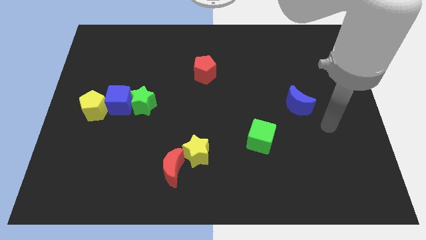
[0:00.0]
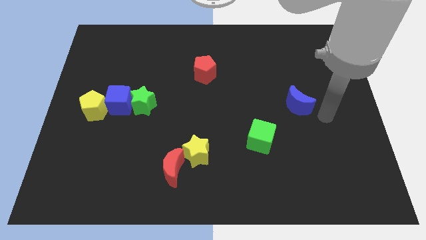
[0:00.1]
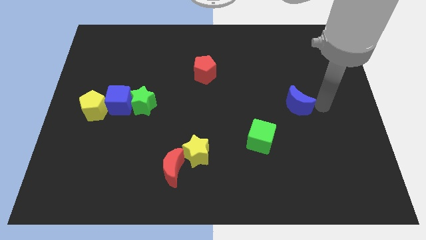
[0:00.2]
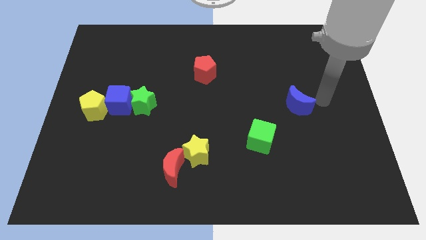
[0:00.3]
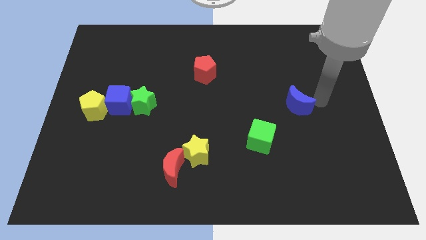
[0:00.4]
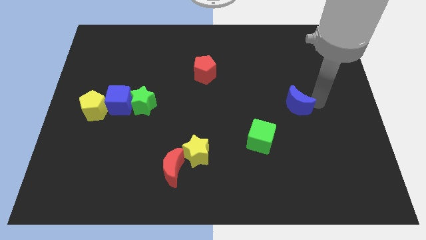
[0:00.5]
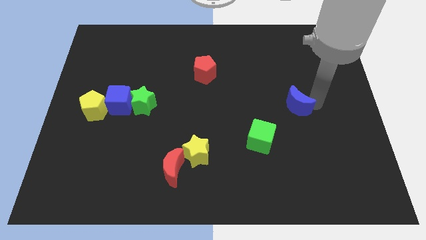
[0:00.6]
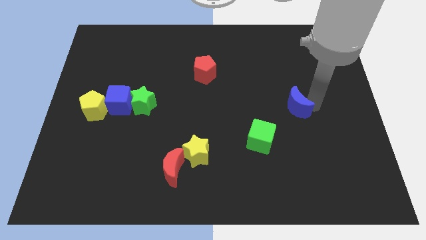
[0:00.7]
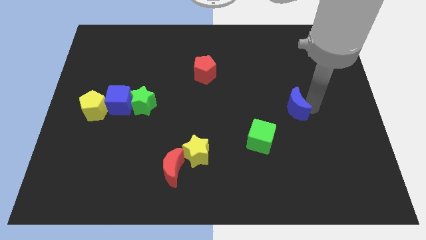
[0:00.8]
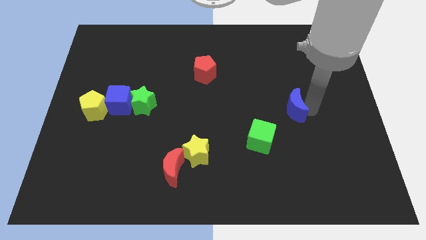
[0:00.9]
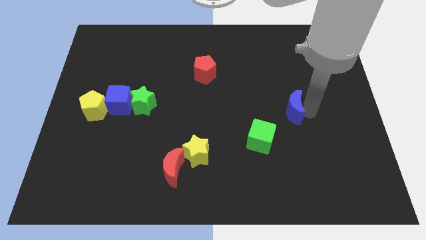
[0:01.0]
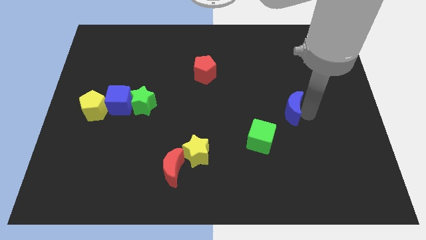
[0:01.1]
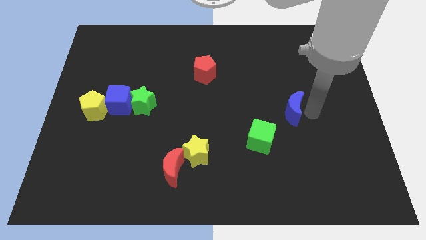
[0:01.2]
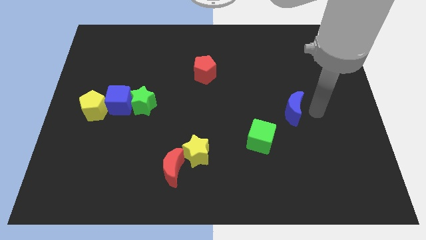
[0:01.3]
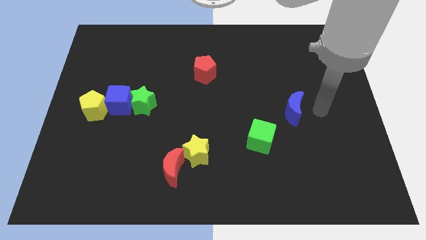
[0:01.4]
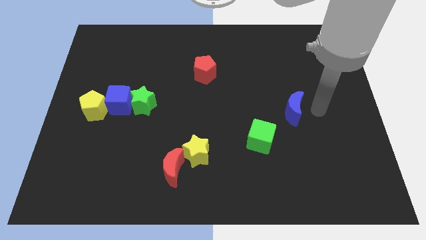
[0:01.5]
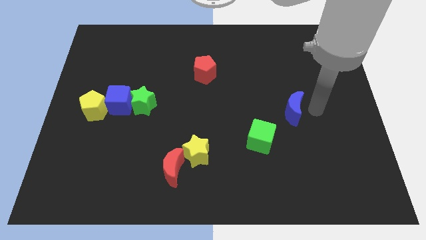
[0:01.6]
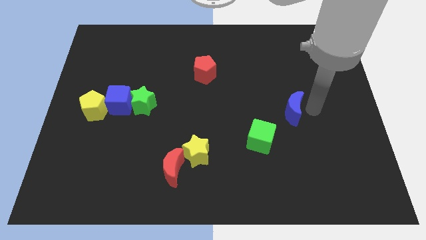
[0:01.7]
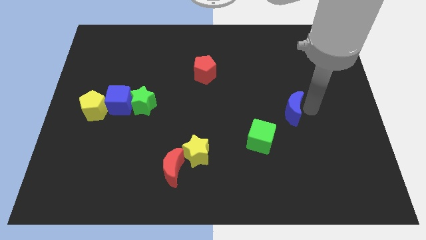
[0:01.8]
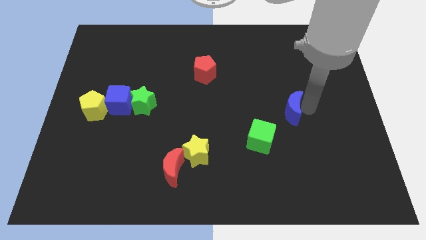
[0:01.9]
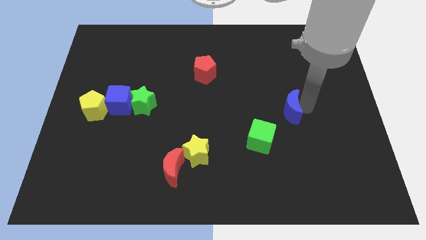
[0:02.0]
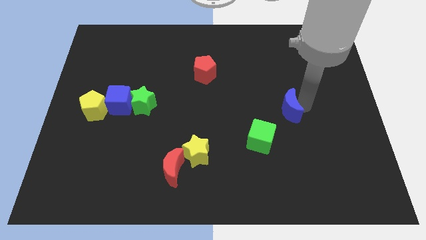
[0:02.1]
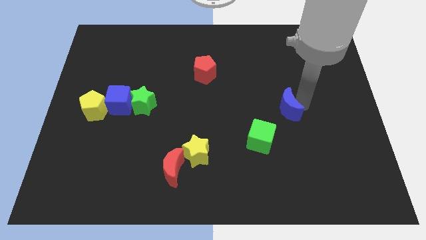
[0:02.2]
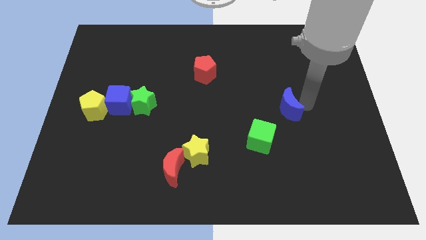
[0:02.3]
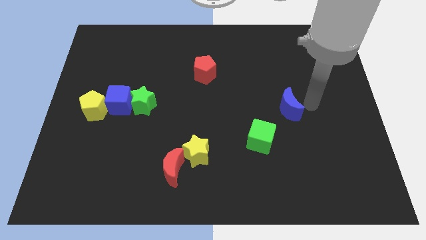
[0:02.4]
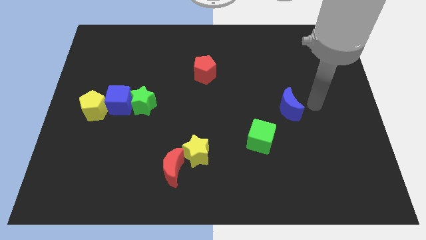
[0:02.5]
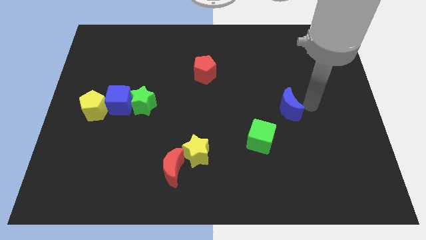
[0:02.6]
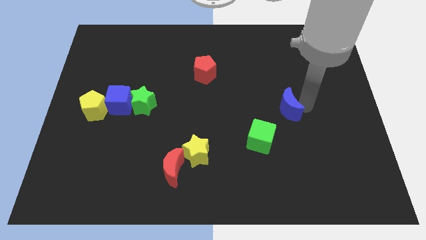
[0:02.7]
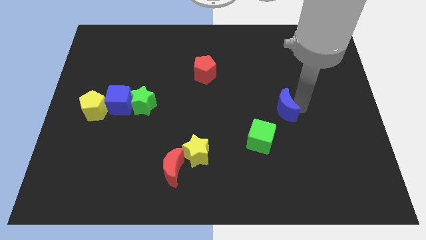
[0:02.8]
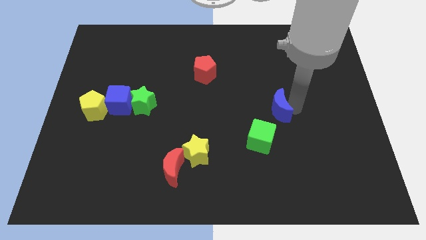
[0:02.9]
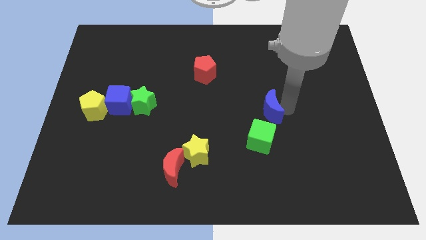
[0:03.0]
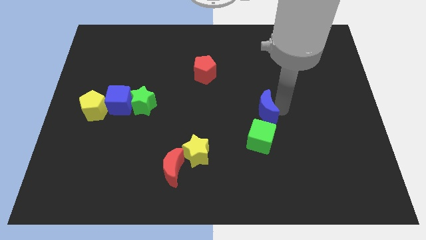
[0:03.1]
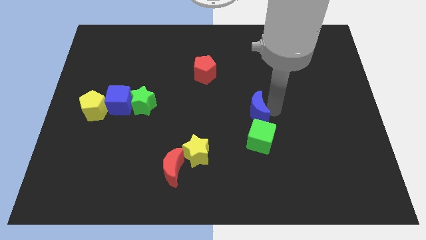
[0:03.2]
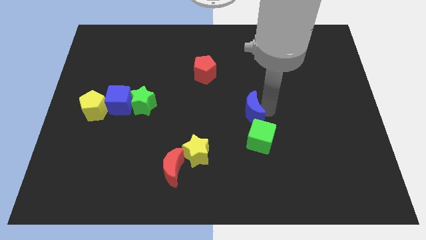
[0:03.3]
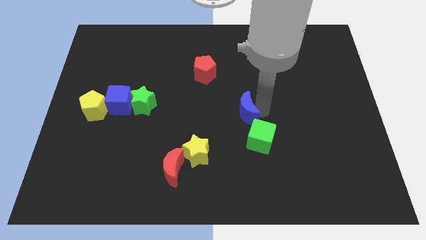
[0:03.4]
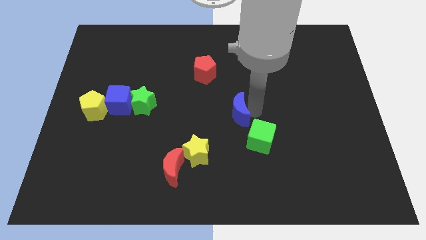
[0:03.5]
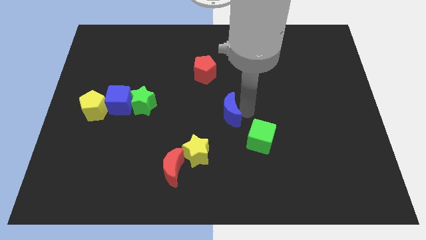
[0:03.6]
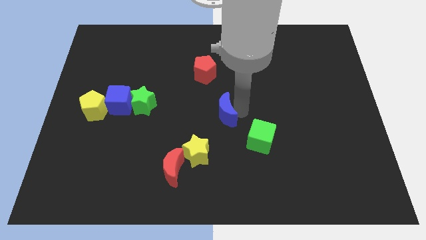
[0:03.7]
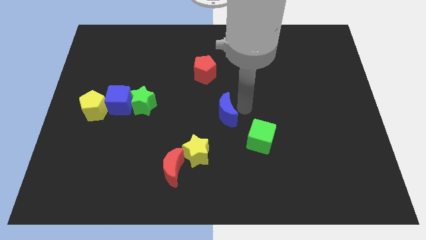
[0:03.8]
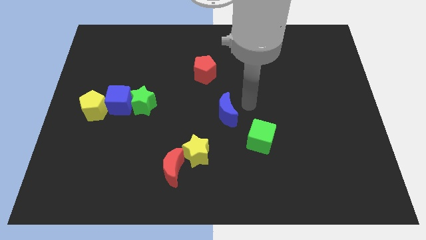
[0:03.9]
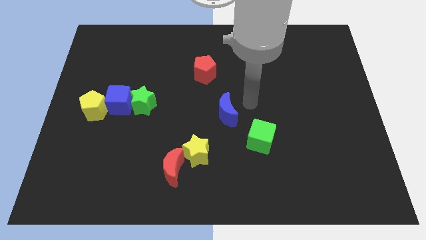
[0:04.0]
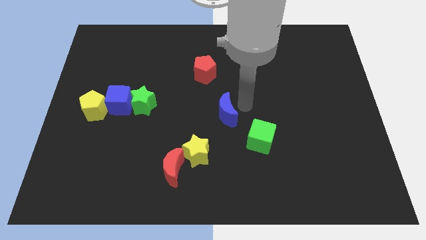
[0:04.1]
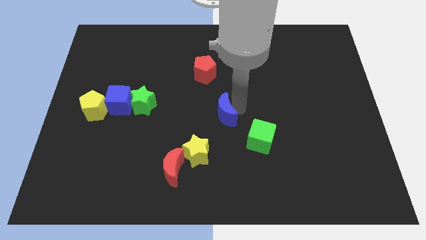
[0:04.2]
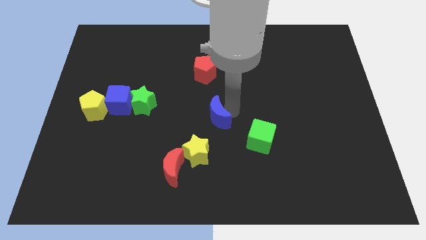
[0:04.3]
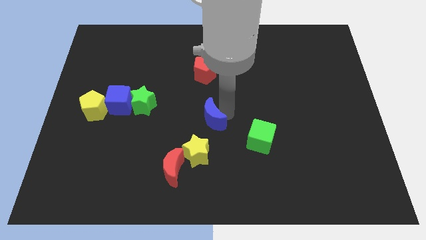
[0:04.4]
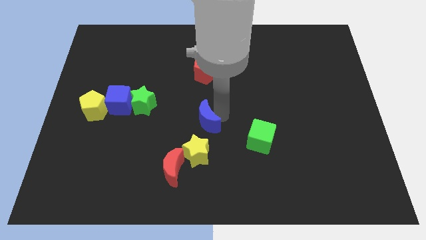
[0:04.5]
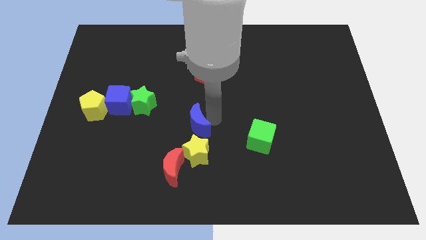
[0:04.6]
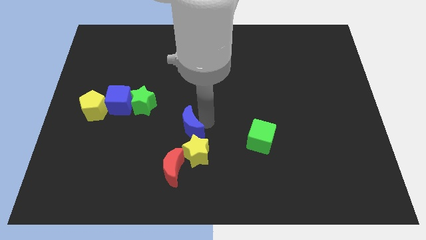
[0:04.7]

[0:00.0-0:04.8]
put the blue moon to the top left side of the yellow star

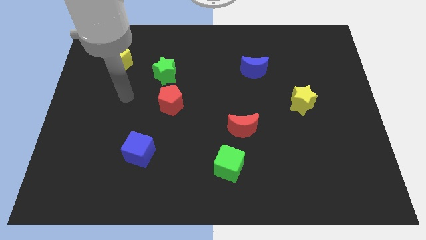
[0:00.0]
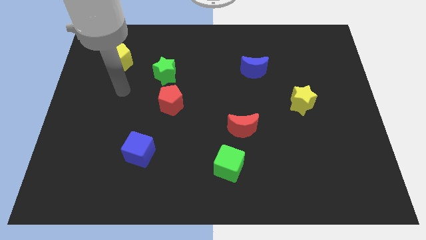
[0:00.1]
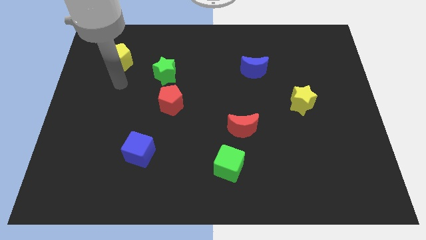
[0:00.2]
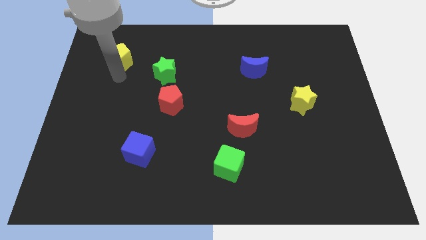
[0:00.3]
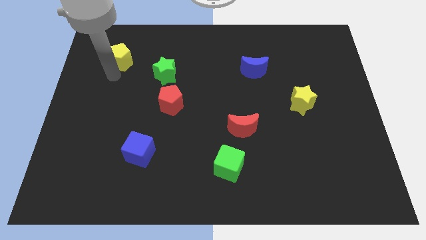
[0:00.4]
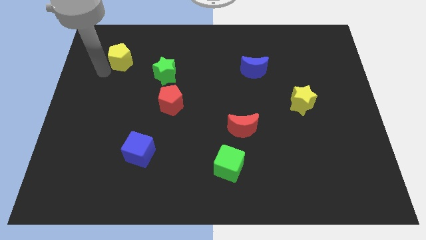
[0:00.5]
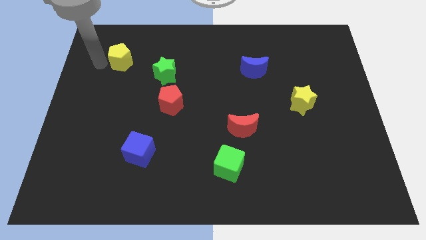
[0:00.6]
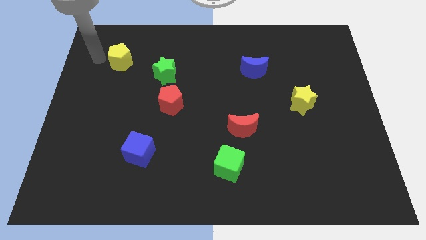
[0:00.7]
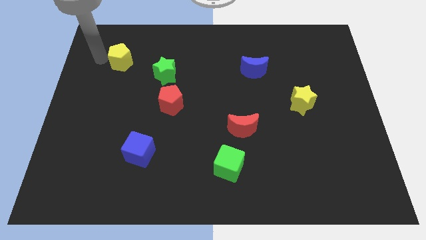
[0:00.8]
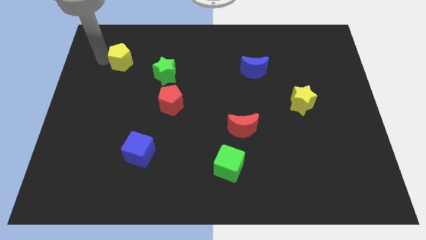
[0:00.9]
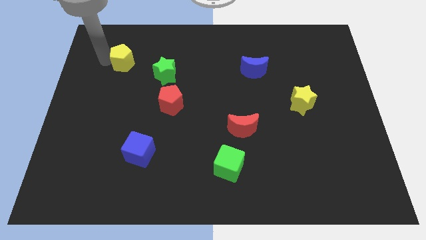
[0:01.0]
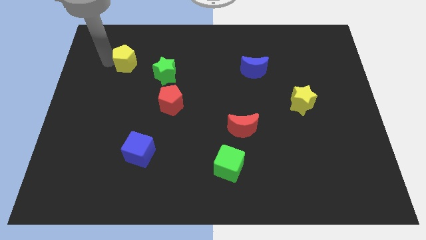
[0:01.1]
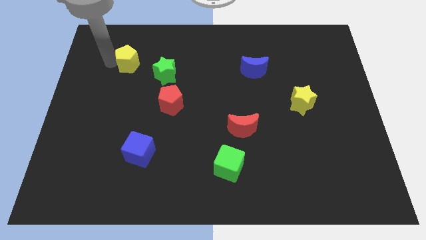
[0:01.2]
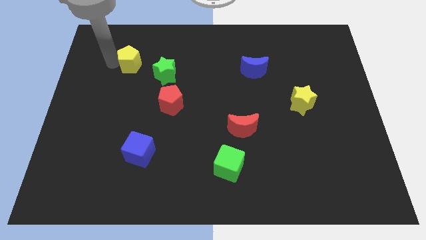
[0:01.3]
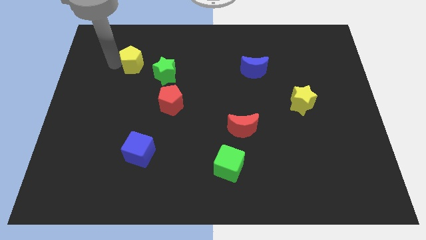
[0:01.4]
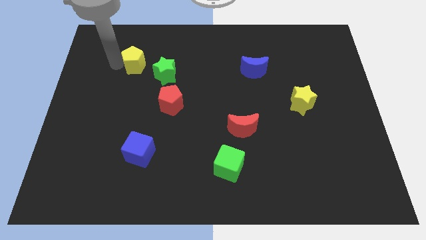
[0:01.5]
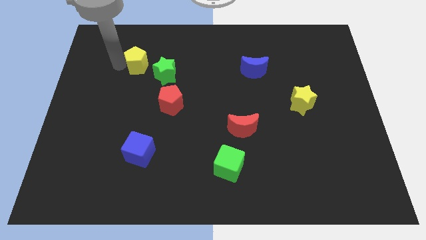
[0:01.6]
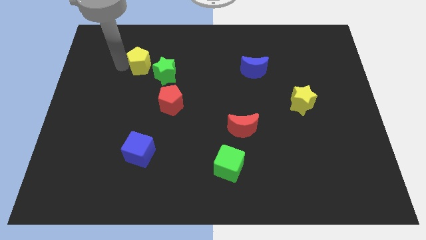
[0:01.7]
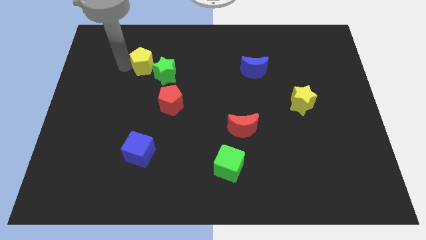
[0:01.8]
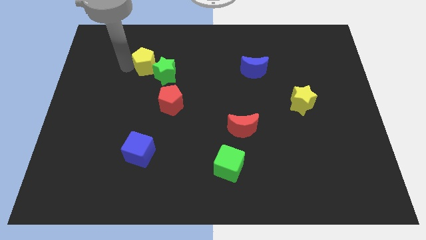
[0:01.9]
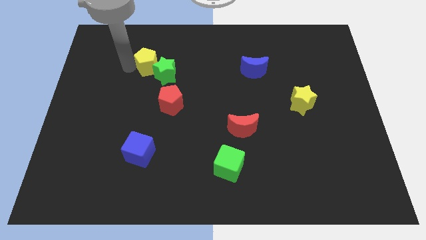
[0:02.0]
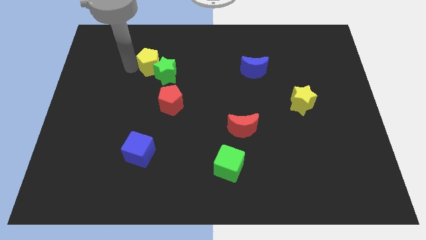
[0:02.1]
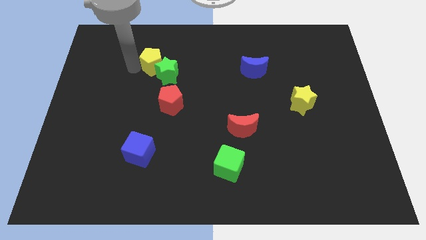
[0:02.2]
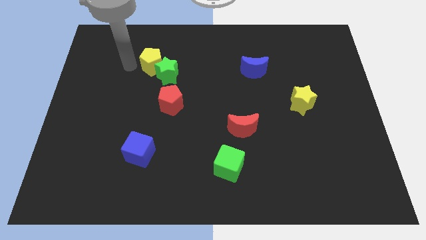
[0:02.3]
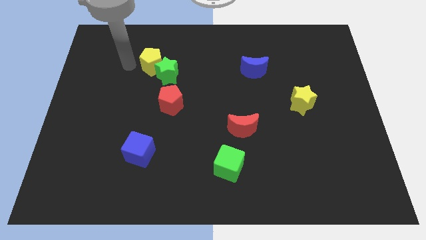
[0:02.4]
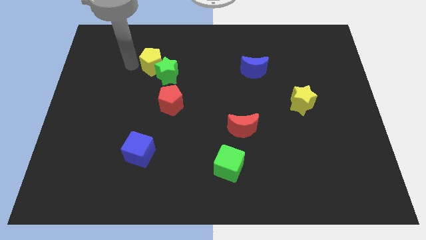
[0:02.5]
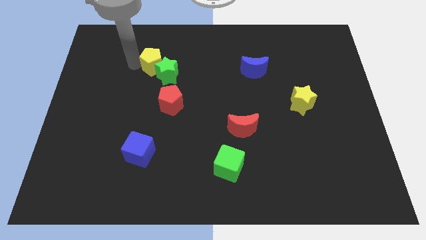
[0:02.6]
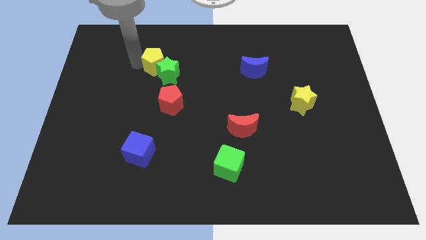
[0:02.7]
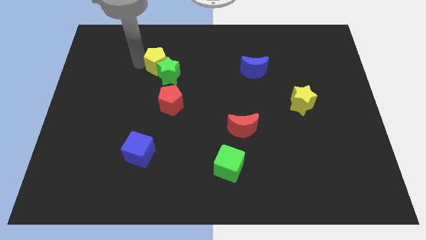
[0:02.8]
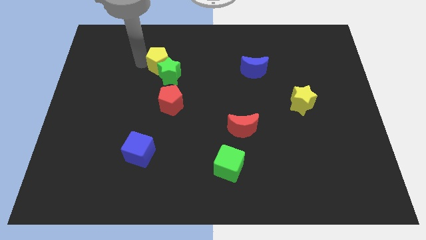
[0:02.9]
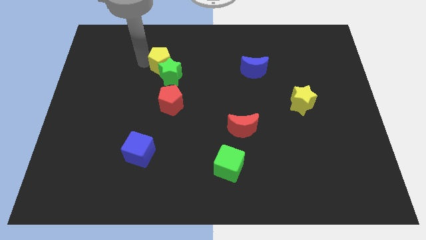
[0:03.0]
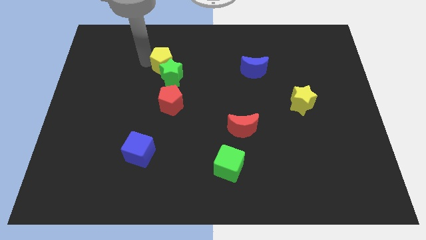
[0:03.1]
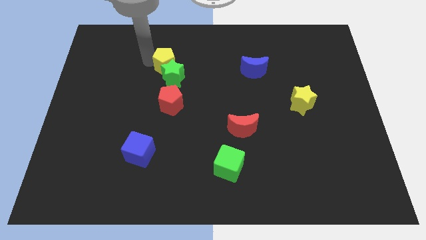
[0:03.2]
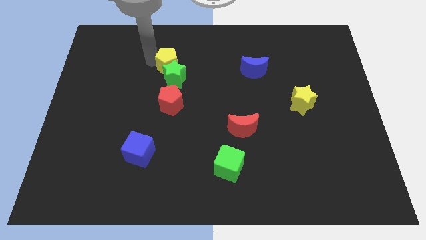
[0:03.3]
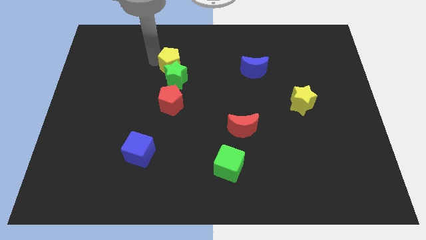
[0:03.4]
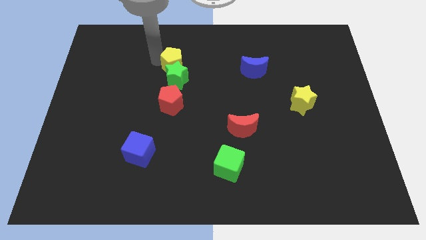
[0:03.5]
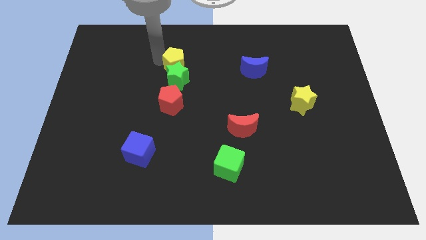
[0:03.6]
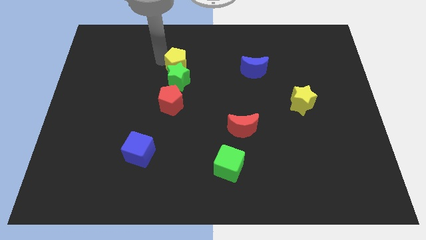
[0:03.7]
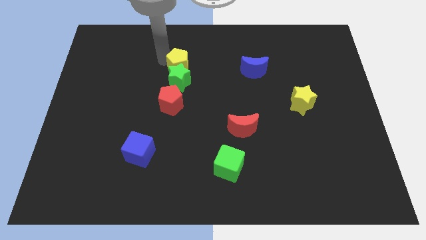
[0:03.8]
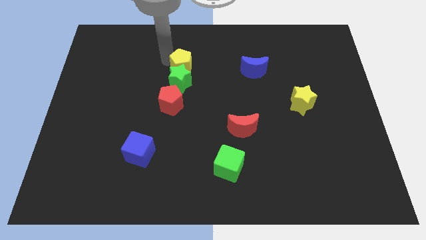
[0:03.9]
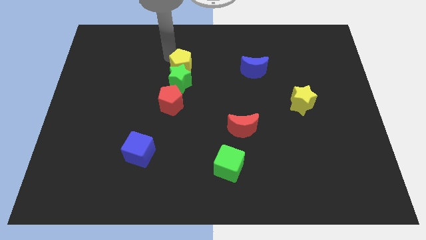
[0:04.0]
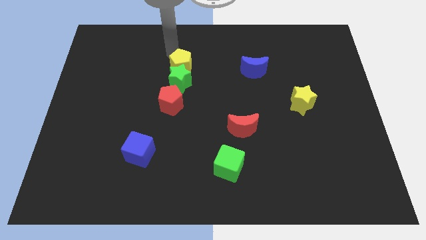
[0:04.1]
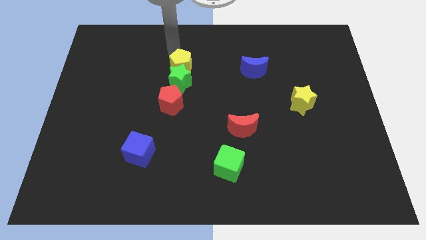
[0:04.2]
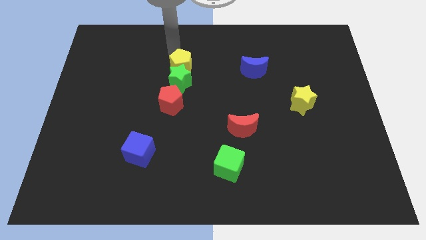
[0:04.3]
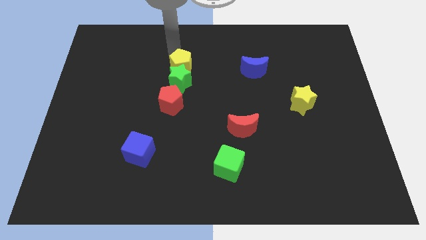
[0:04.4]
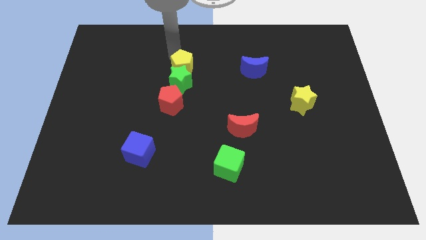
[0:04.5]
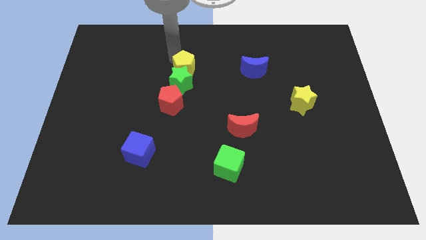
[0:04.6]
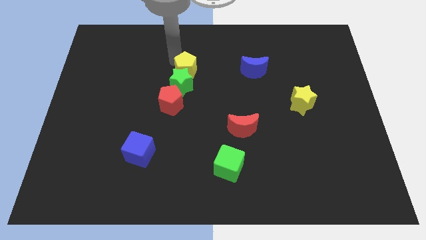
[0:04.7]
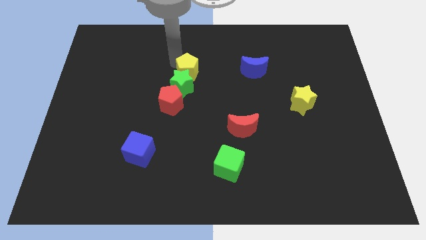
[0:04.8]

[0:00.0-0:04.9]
push the yellow pentagon to the top right side of the red pentagon
